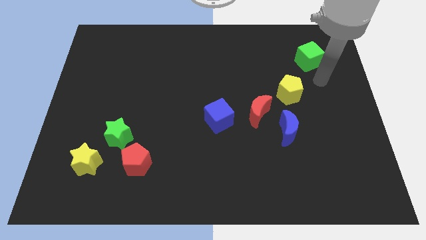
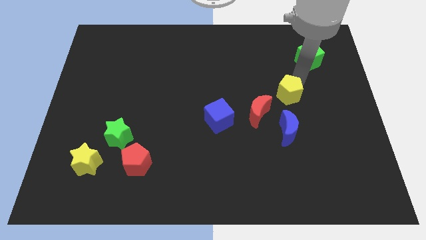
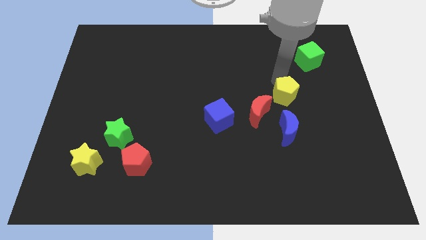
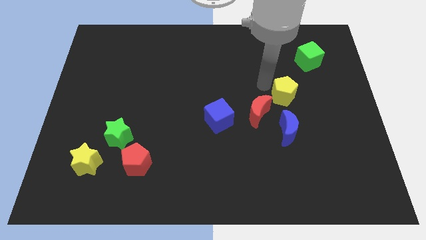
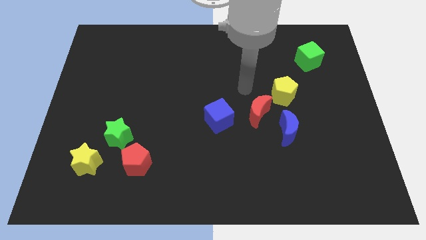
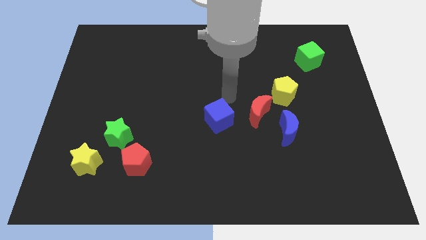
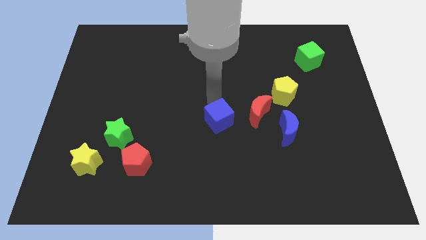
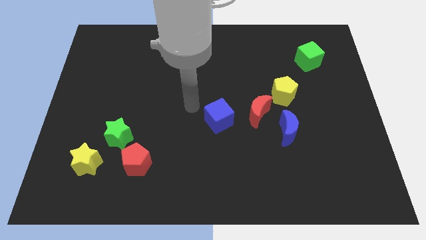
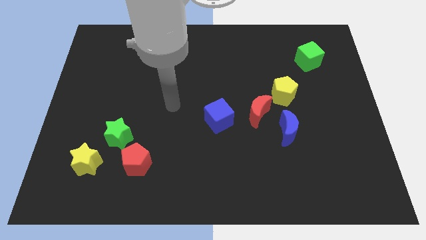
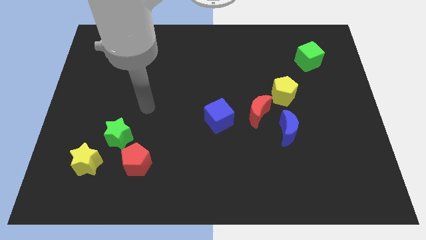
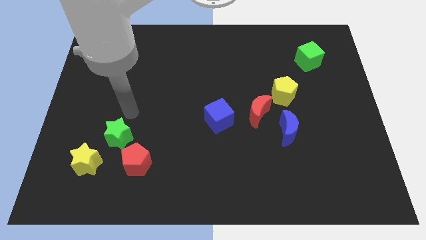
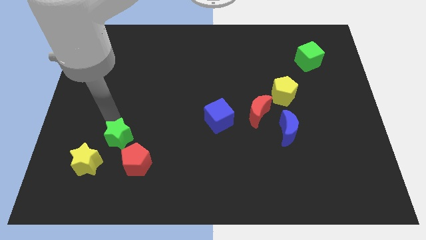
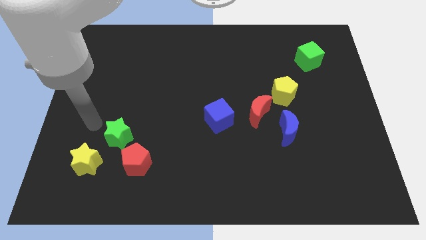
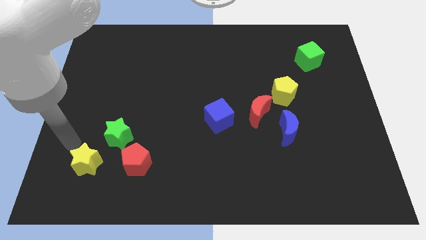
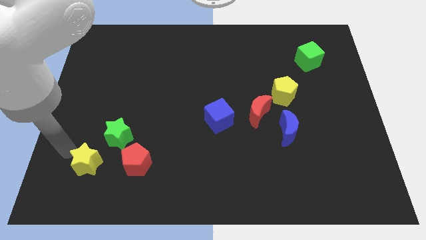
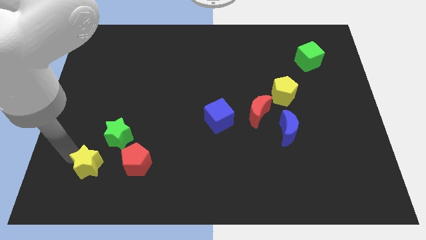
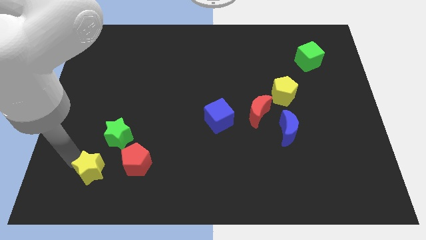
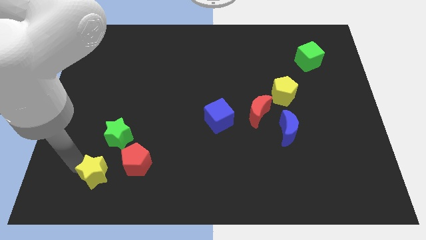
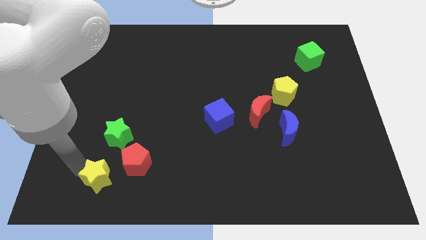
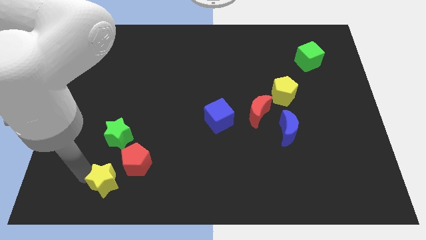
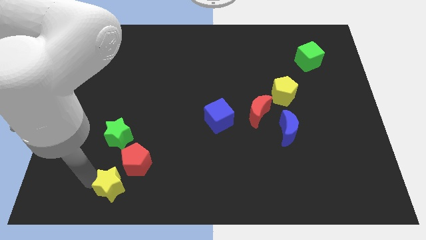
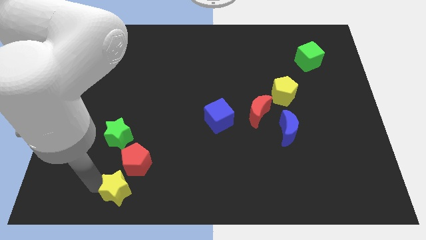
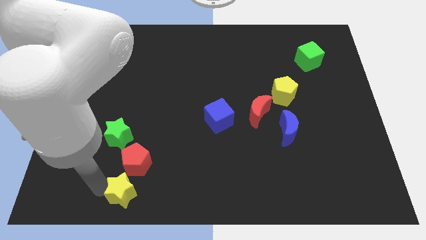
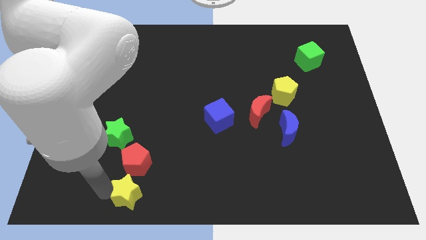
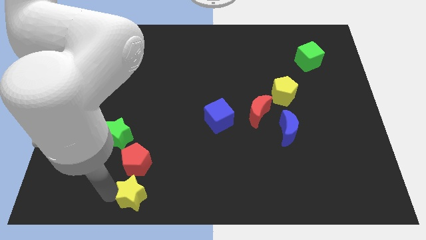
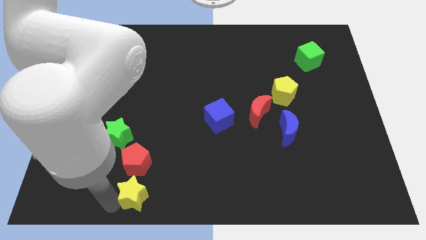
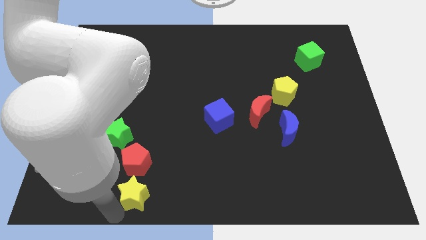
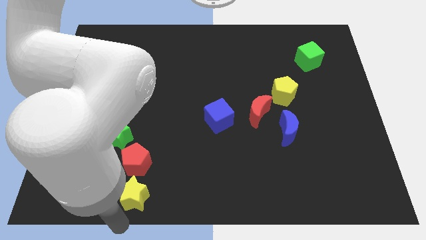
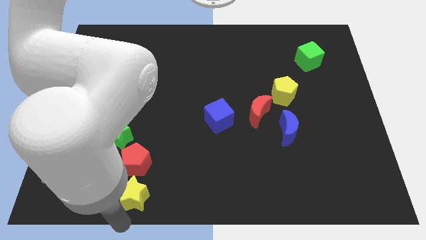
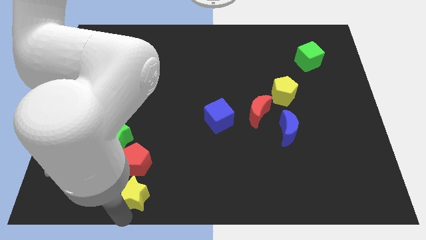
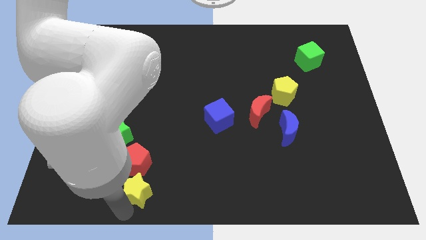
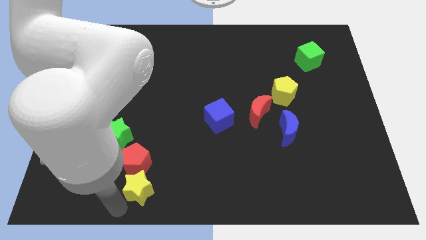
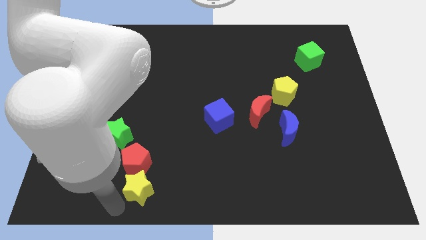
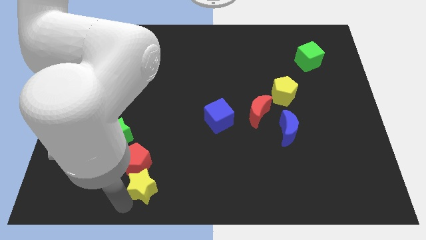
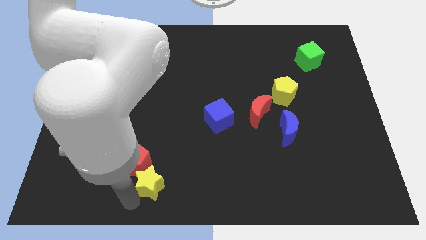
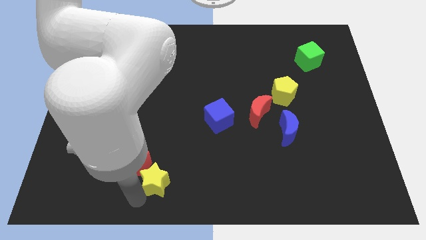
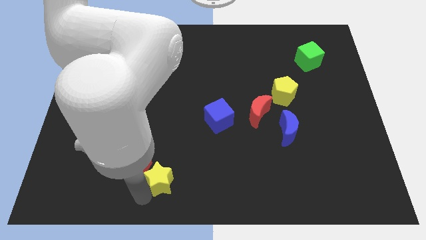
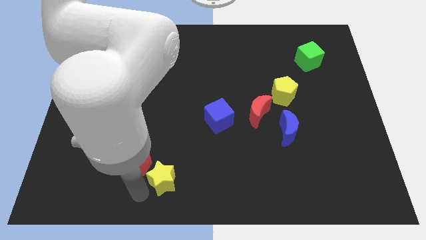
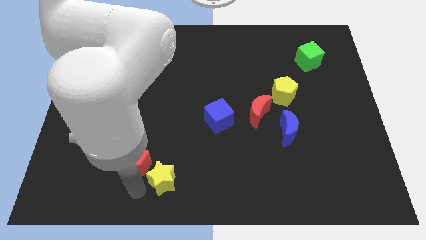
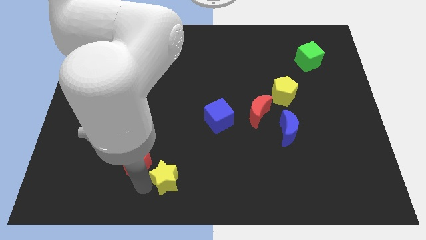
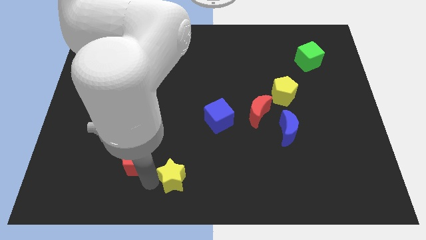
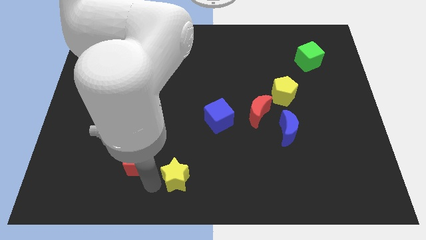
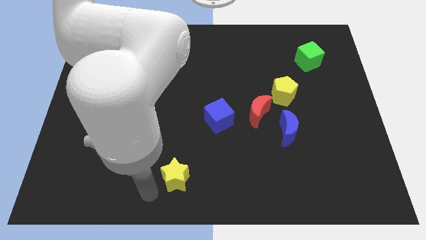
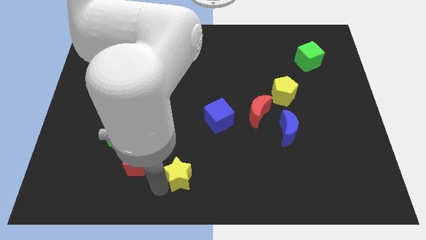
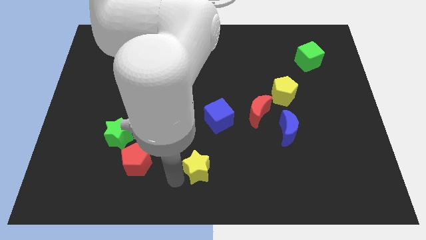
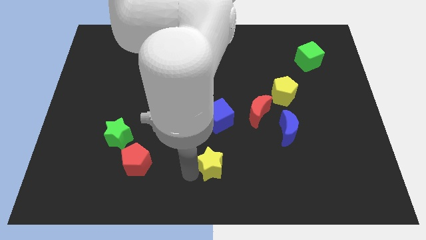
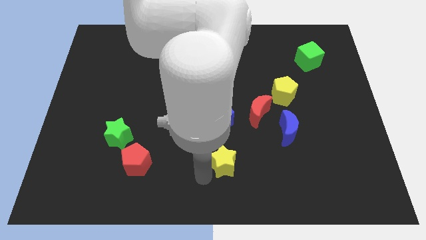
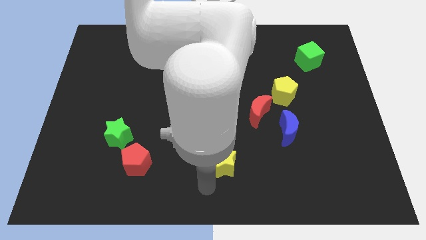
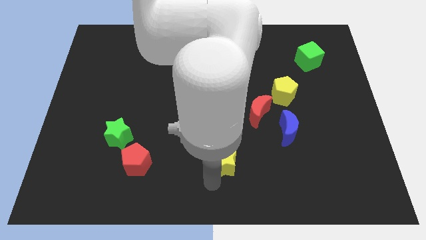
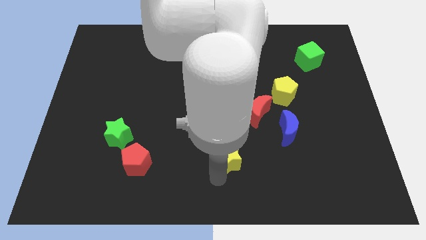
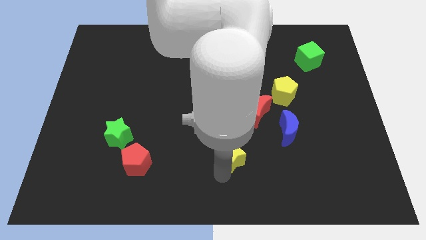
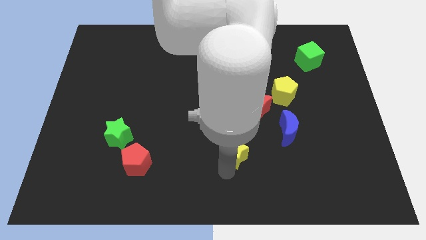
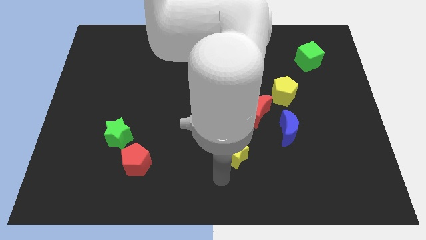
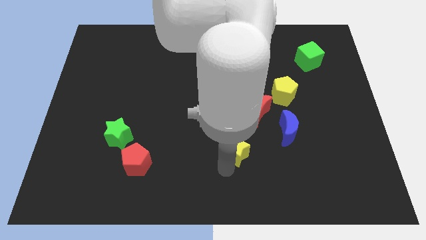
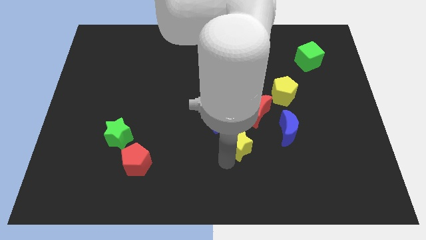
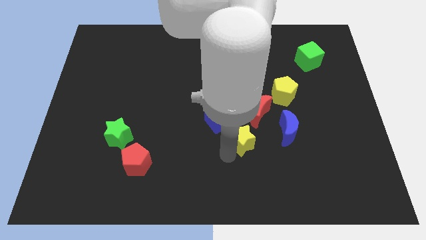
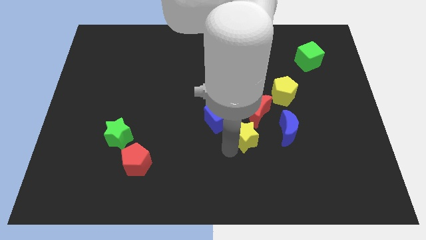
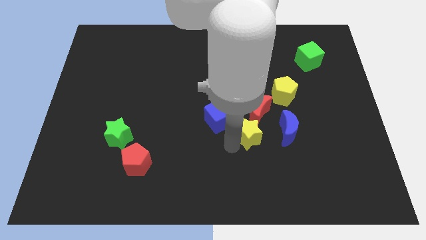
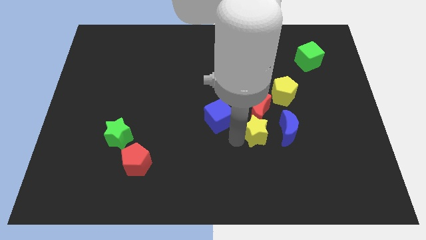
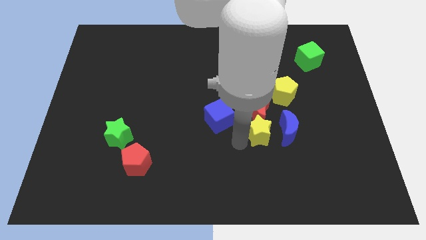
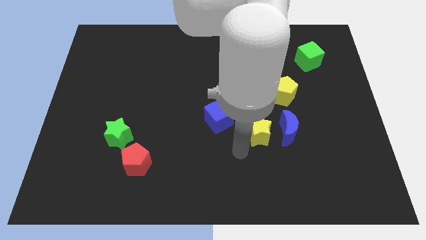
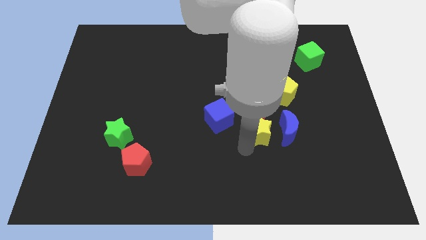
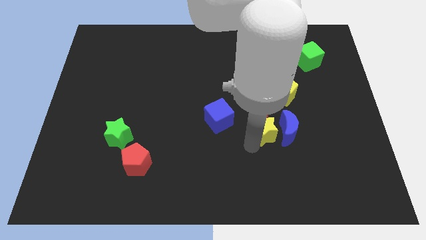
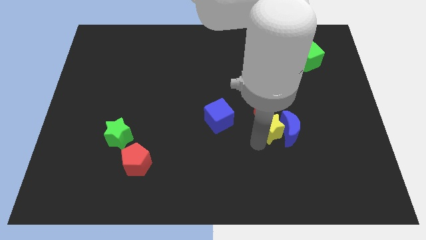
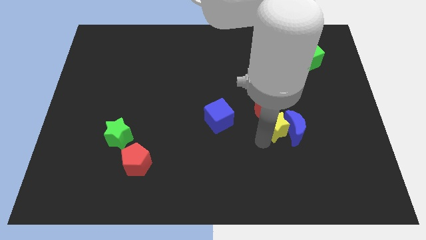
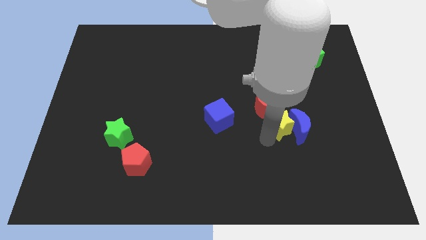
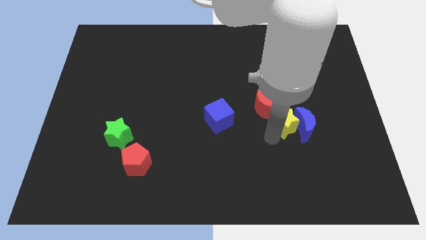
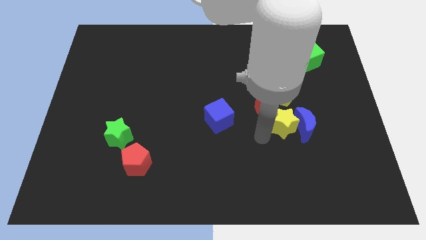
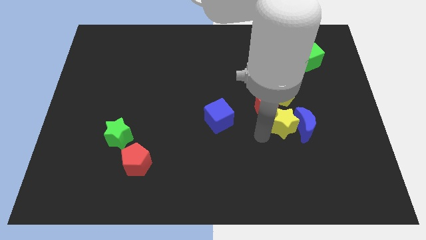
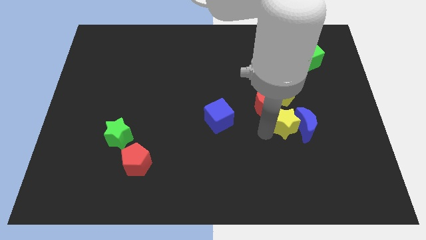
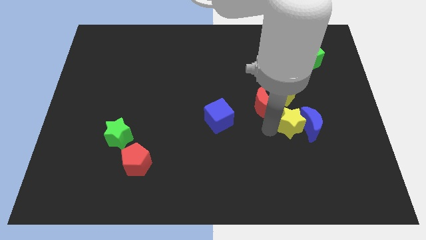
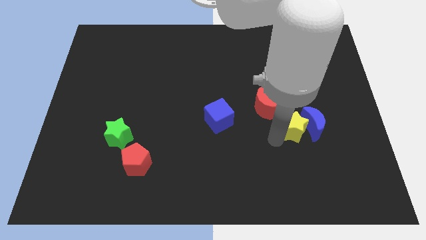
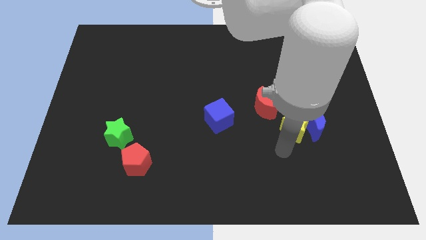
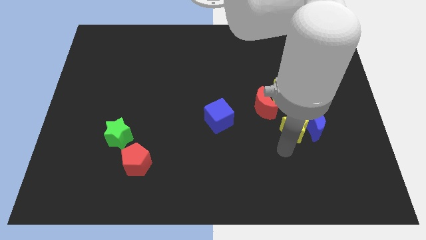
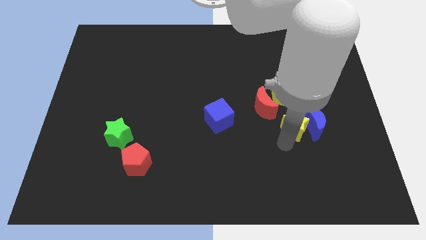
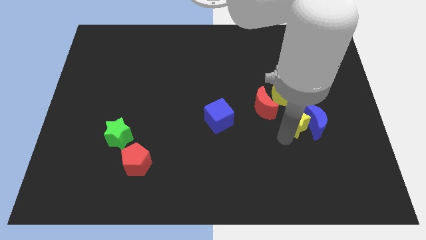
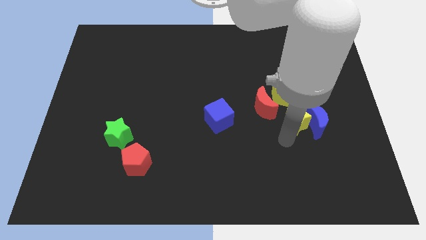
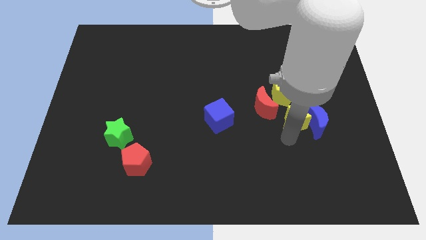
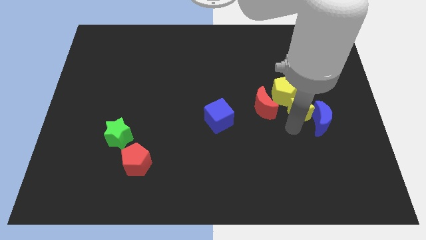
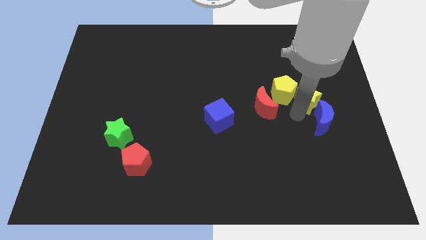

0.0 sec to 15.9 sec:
slide the yellow star to the bottom side of the green cube

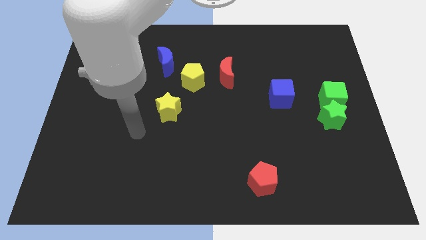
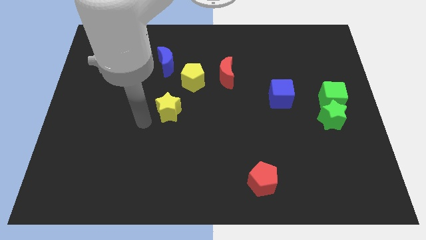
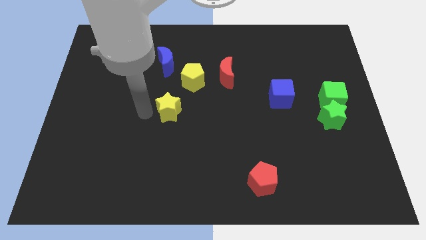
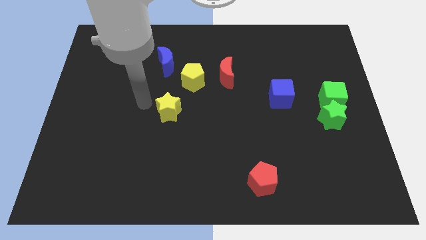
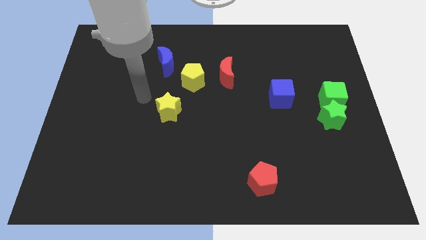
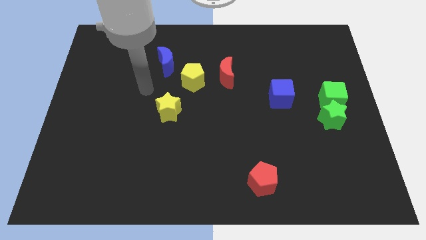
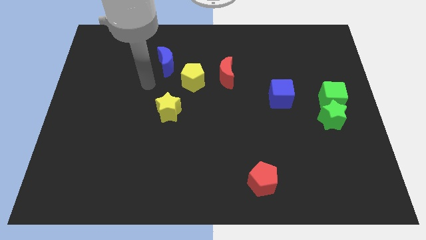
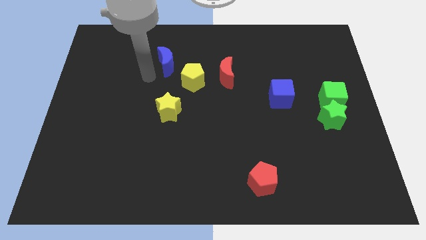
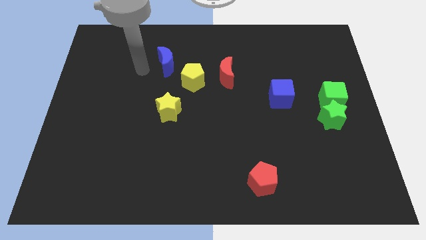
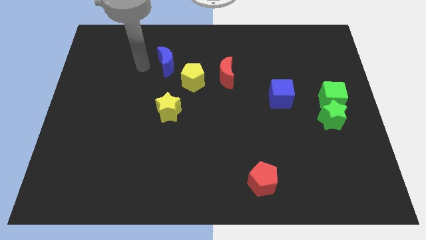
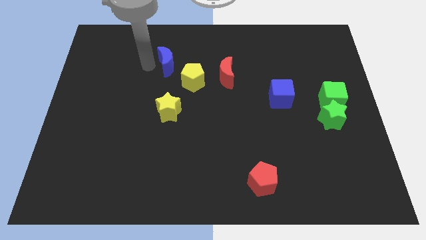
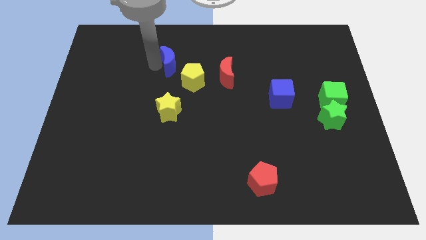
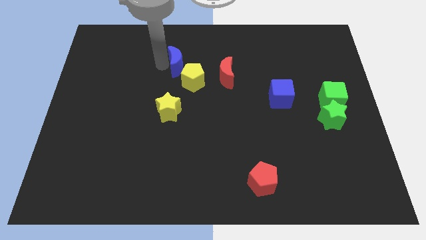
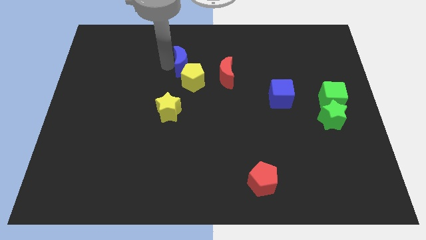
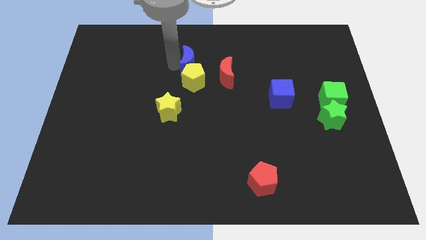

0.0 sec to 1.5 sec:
push the blue moon diagonally up and to the left of the red moon
